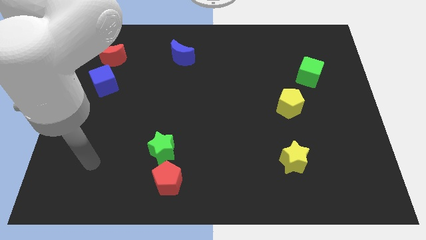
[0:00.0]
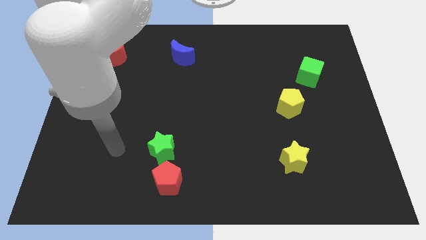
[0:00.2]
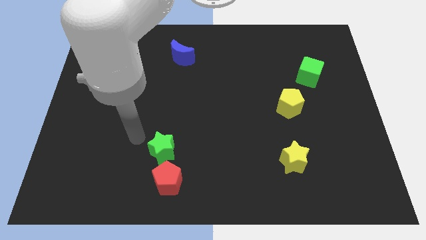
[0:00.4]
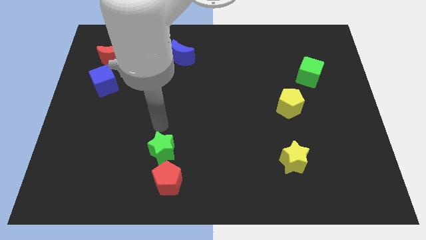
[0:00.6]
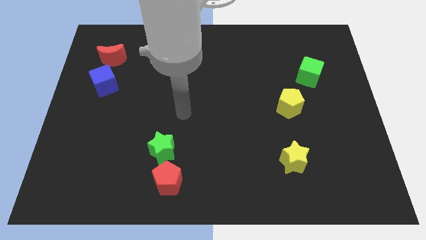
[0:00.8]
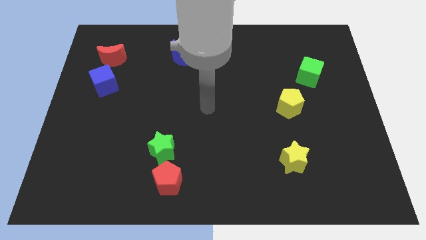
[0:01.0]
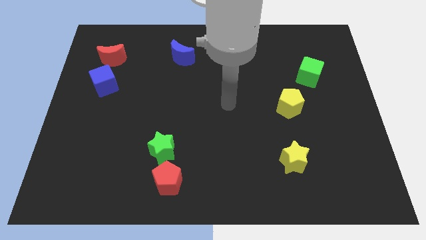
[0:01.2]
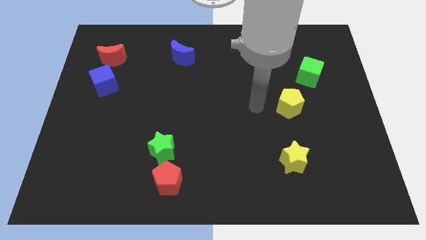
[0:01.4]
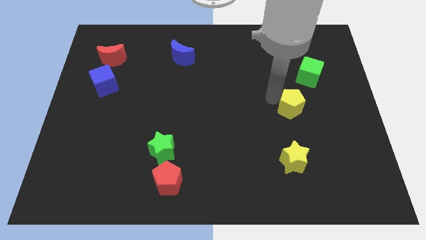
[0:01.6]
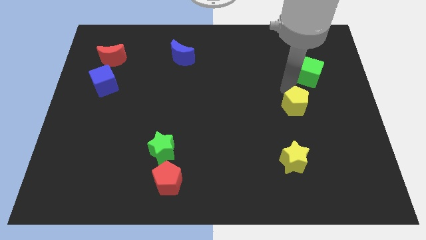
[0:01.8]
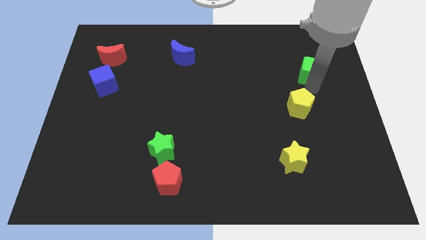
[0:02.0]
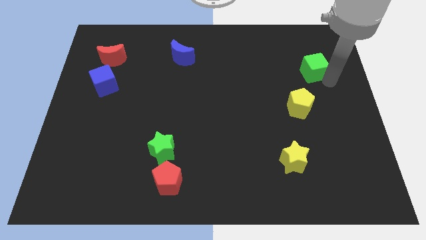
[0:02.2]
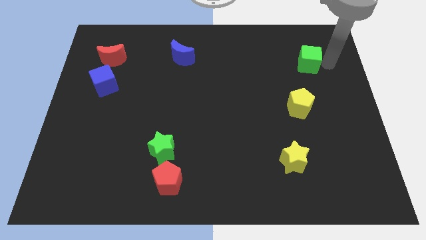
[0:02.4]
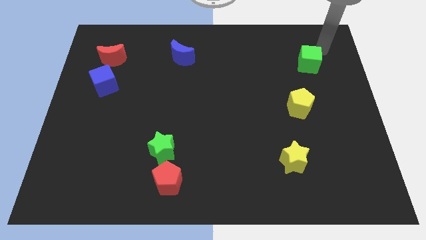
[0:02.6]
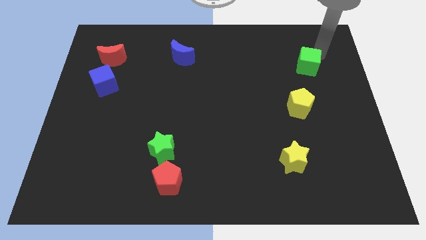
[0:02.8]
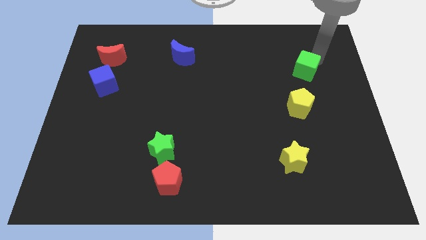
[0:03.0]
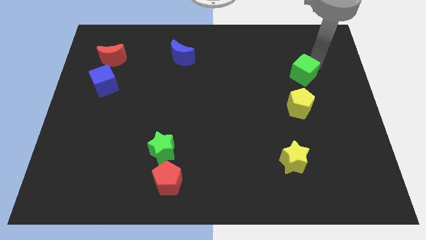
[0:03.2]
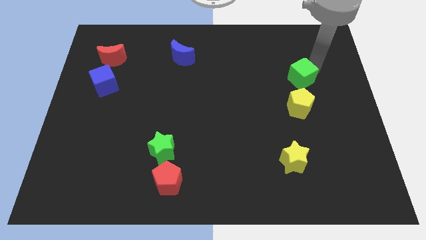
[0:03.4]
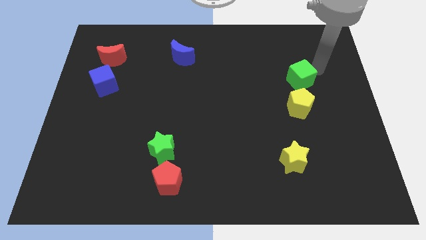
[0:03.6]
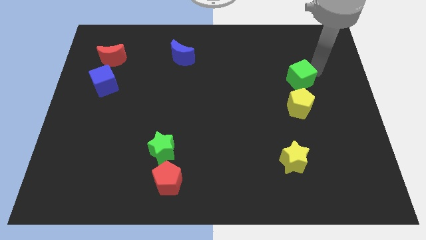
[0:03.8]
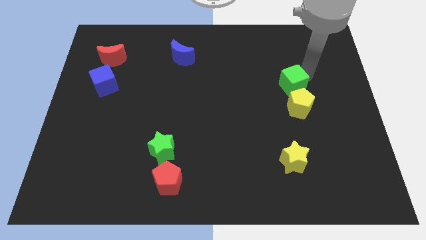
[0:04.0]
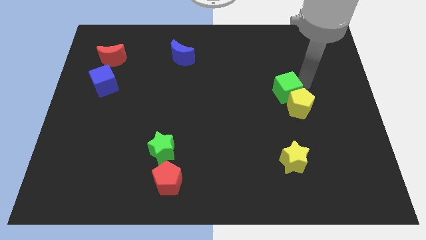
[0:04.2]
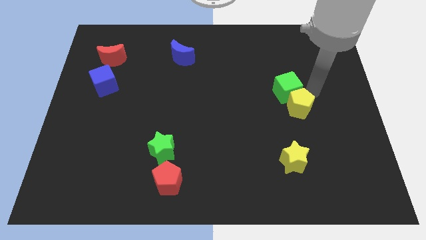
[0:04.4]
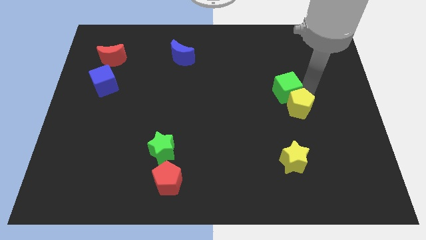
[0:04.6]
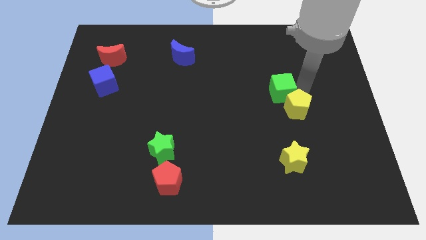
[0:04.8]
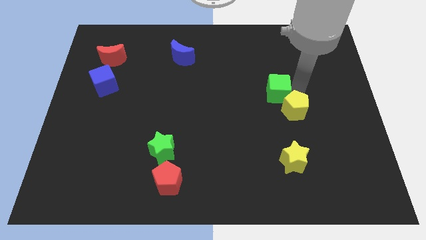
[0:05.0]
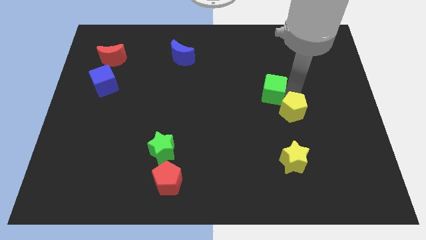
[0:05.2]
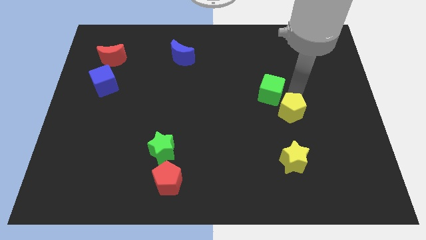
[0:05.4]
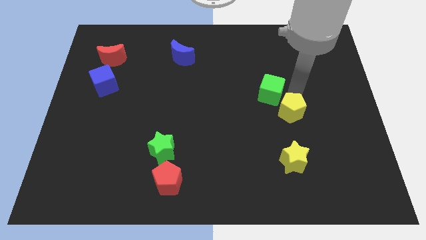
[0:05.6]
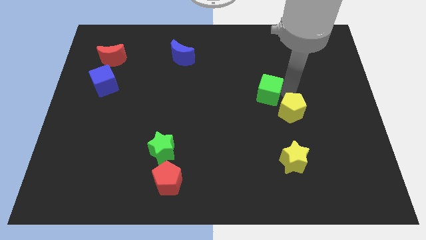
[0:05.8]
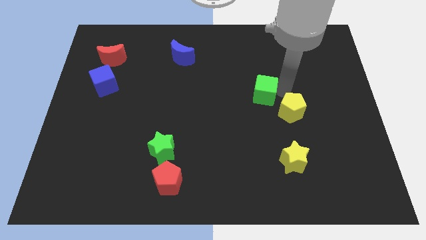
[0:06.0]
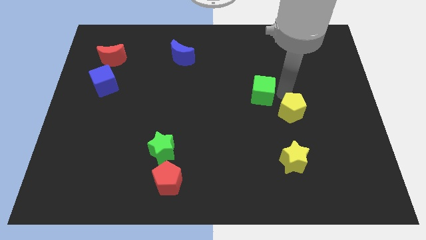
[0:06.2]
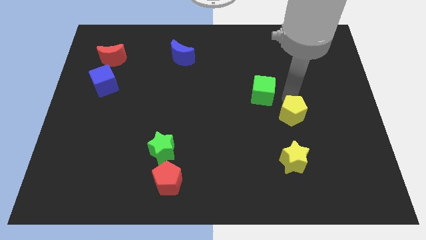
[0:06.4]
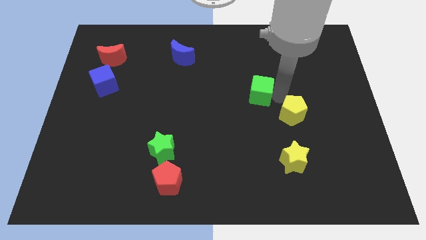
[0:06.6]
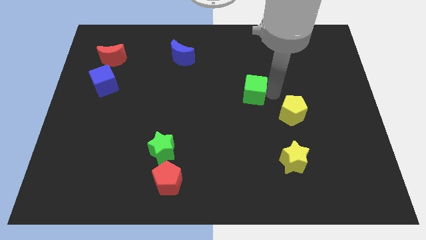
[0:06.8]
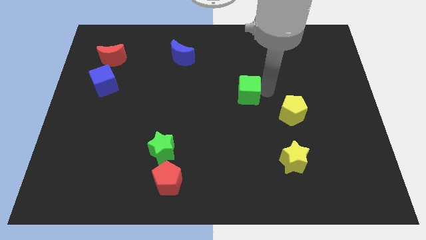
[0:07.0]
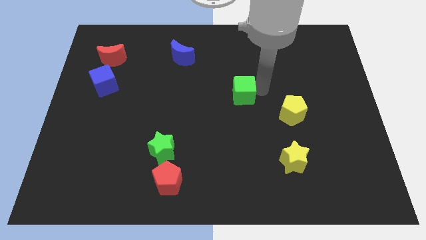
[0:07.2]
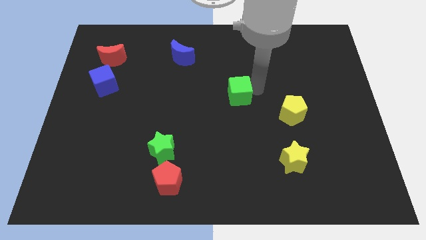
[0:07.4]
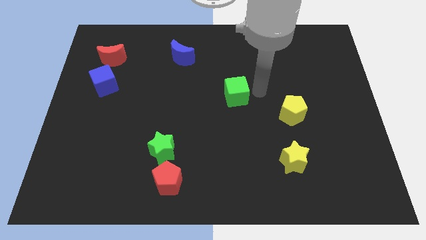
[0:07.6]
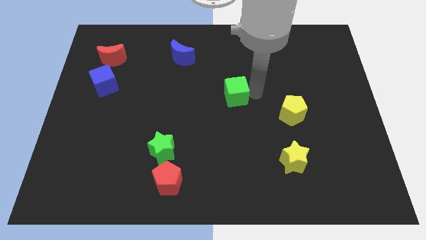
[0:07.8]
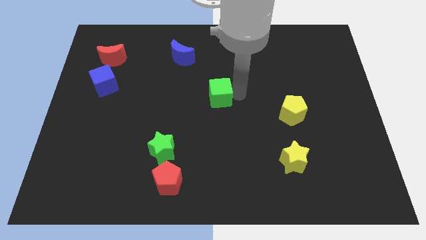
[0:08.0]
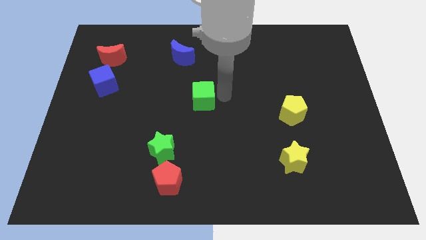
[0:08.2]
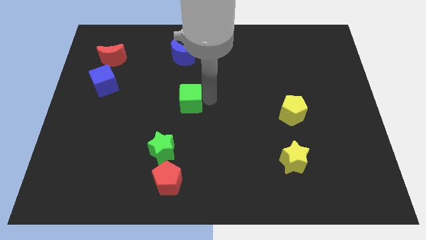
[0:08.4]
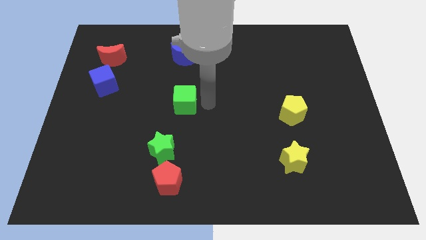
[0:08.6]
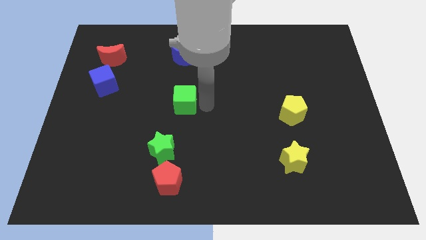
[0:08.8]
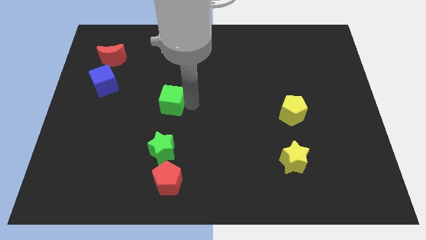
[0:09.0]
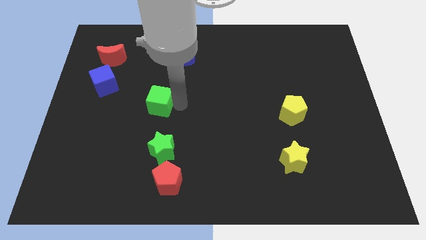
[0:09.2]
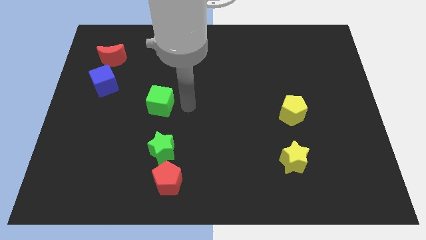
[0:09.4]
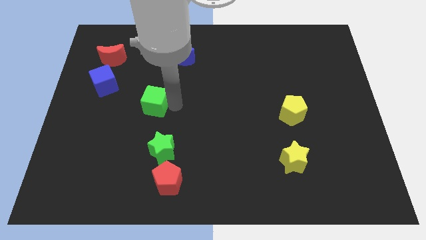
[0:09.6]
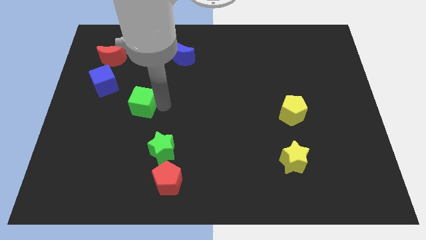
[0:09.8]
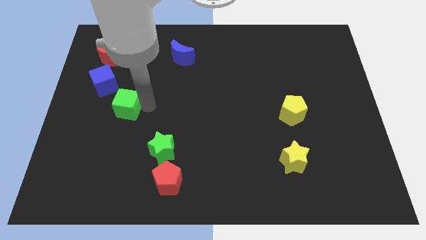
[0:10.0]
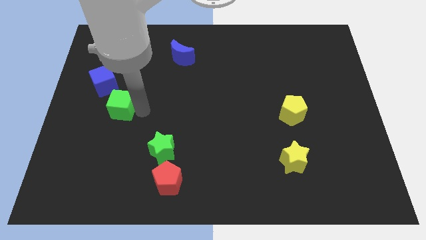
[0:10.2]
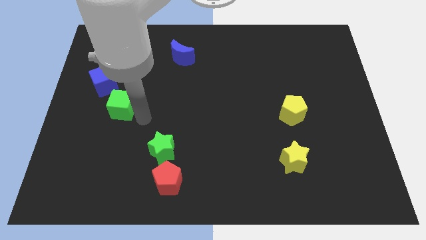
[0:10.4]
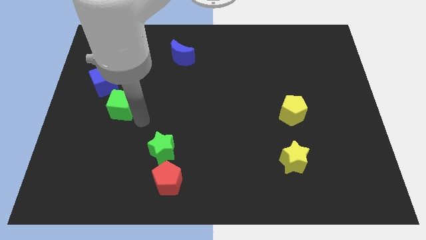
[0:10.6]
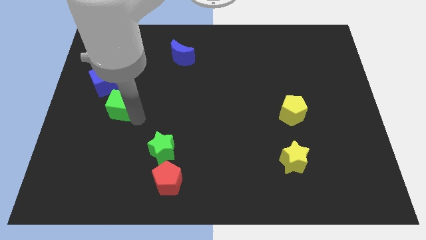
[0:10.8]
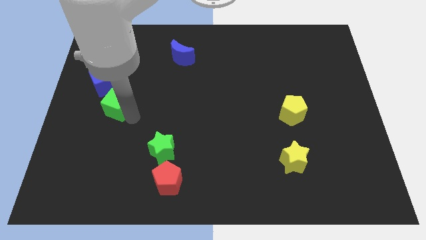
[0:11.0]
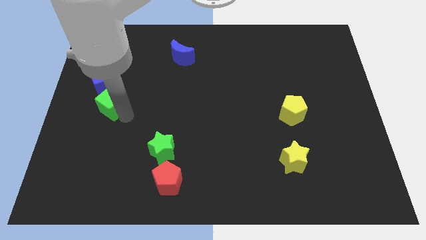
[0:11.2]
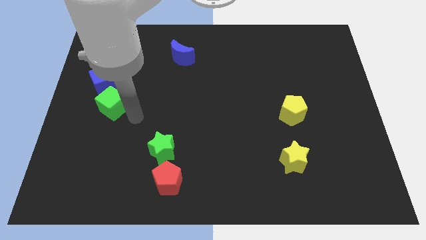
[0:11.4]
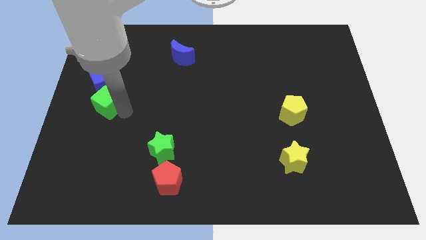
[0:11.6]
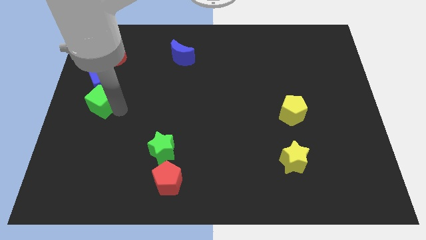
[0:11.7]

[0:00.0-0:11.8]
move the green cube to the left side of the board

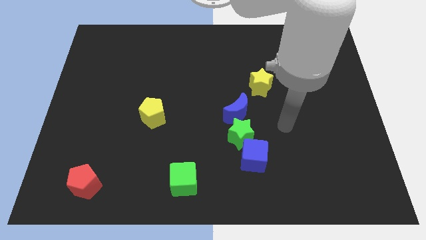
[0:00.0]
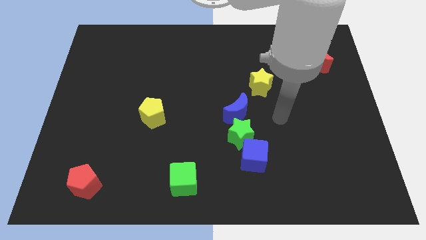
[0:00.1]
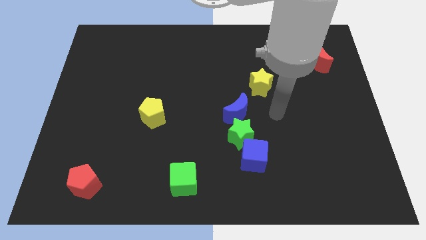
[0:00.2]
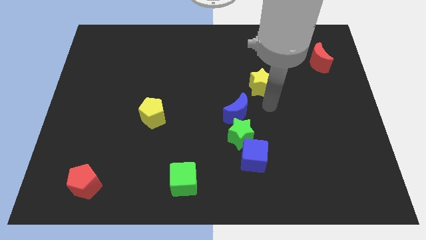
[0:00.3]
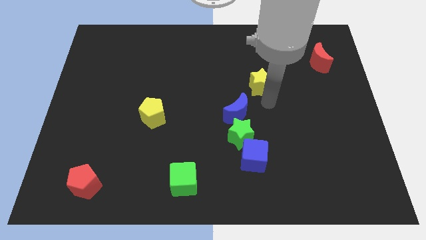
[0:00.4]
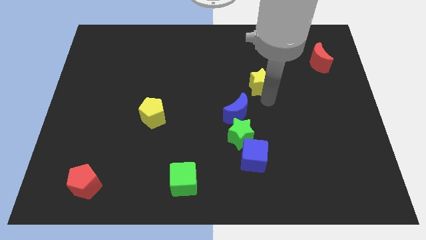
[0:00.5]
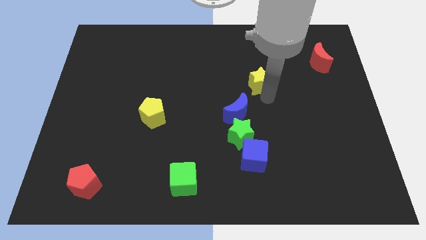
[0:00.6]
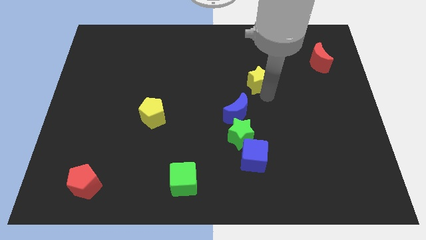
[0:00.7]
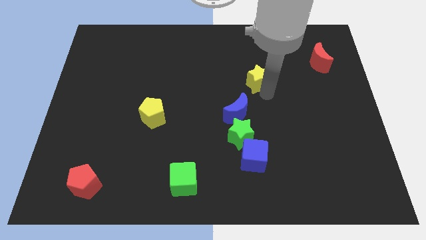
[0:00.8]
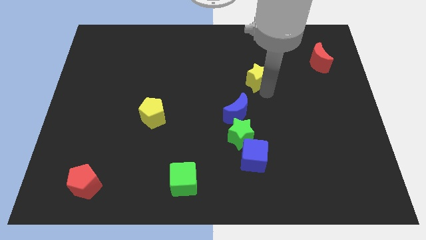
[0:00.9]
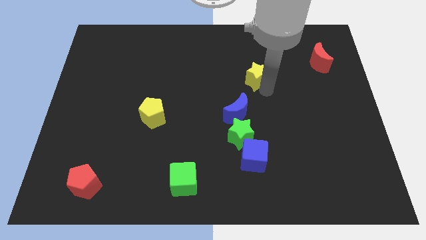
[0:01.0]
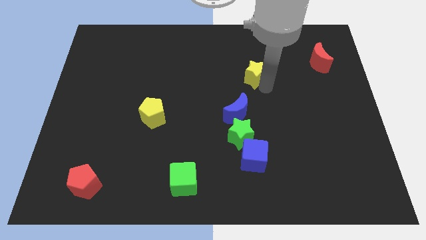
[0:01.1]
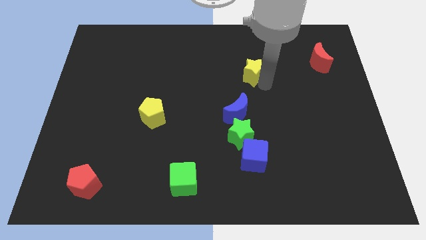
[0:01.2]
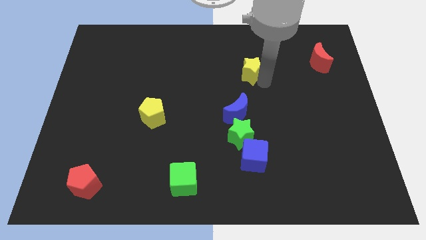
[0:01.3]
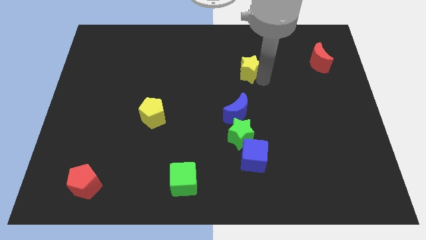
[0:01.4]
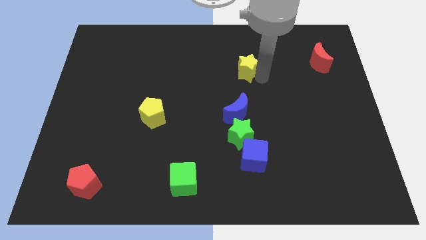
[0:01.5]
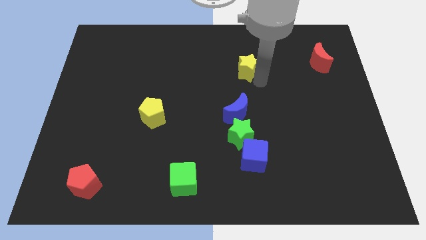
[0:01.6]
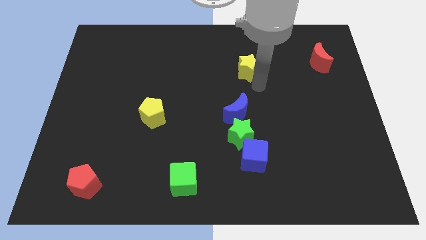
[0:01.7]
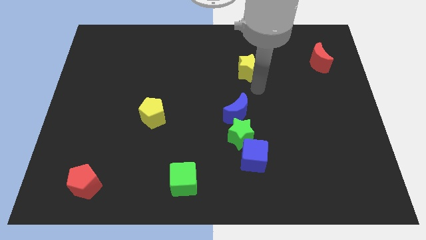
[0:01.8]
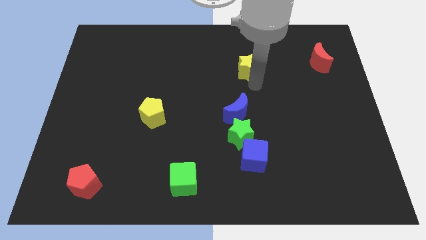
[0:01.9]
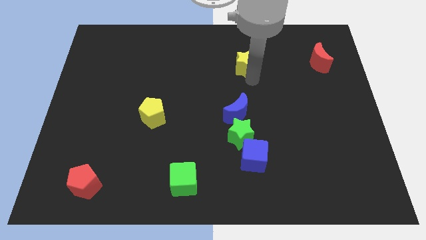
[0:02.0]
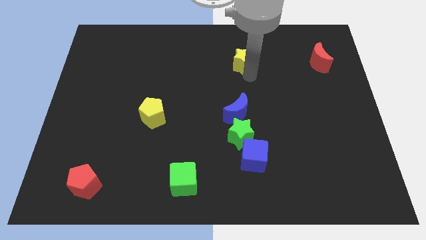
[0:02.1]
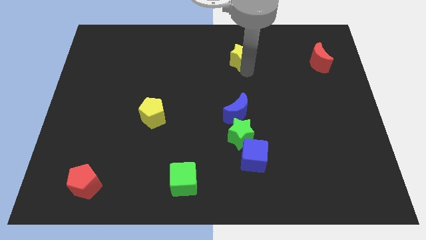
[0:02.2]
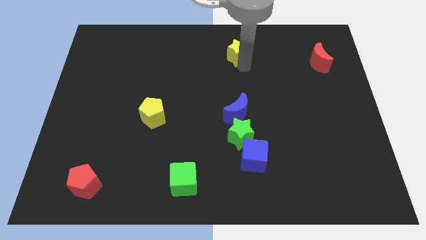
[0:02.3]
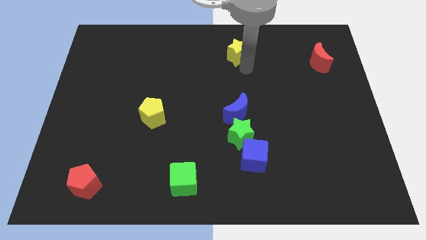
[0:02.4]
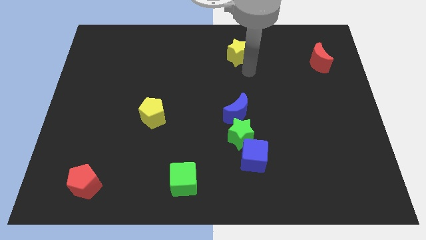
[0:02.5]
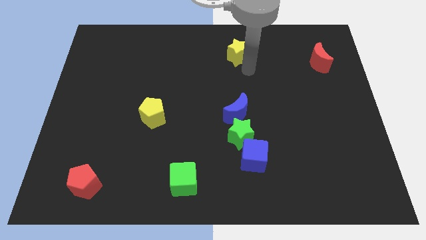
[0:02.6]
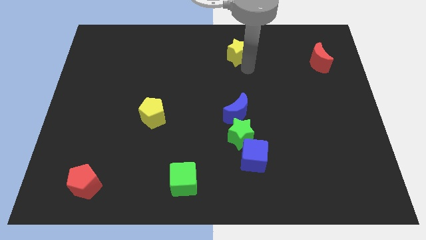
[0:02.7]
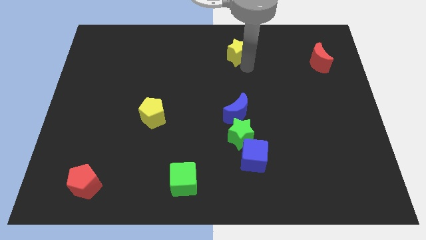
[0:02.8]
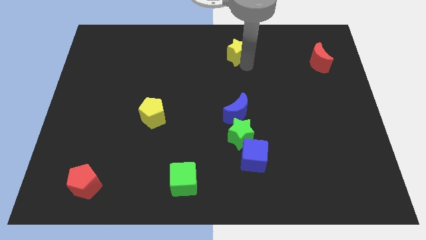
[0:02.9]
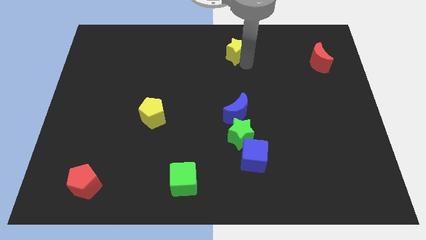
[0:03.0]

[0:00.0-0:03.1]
put the yellow star to the towards your base
